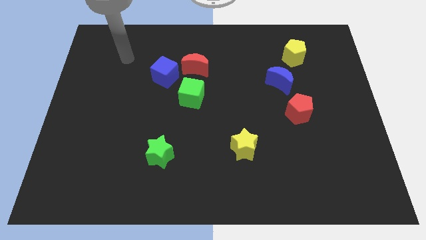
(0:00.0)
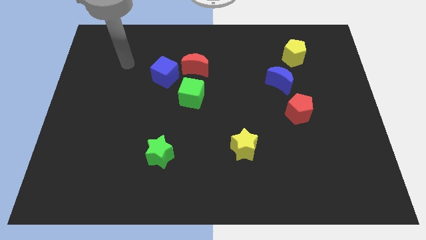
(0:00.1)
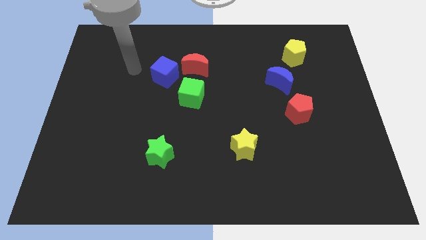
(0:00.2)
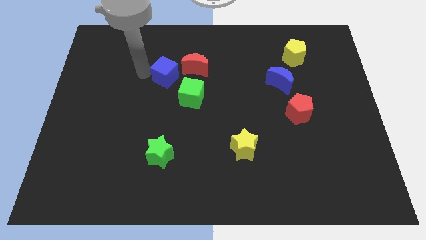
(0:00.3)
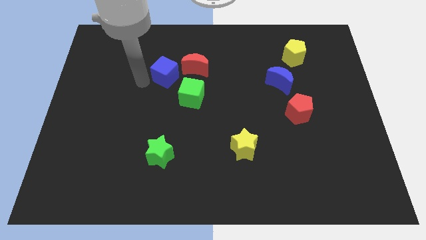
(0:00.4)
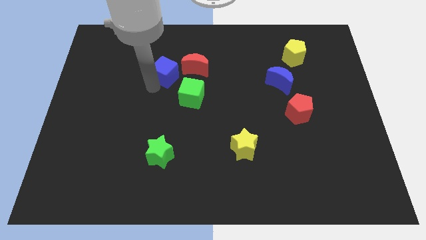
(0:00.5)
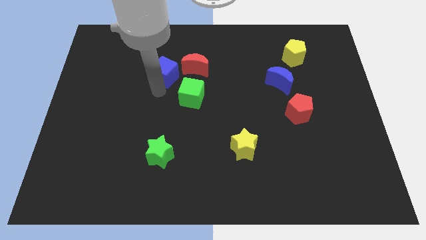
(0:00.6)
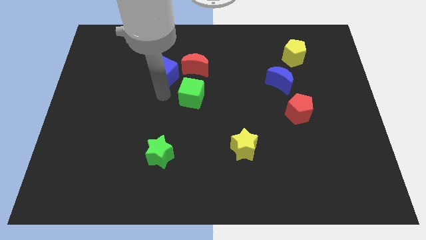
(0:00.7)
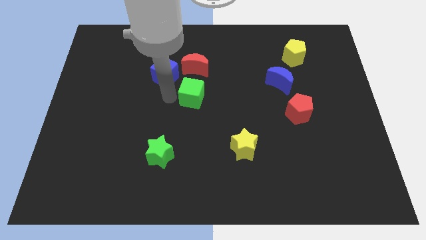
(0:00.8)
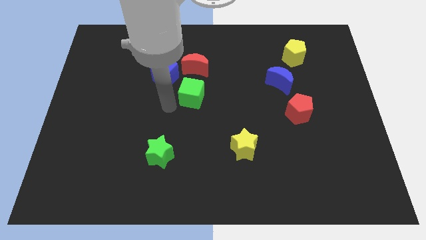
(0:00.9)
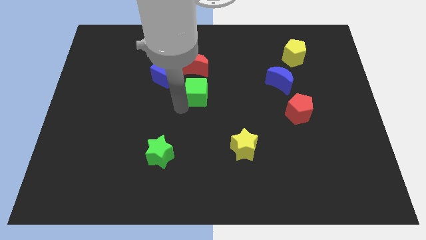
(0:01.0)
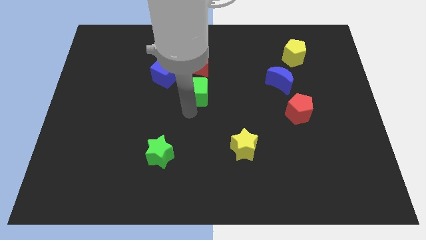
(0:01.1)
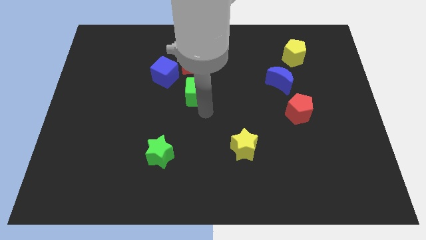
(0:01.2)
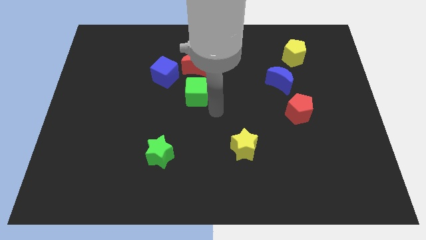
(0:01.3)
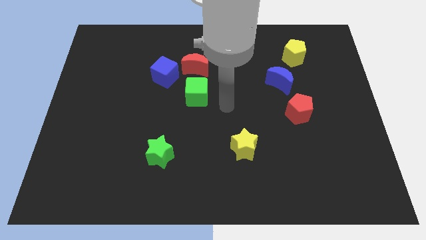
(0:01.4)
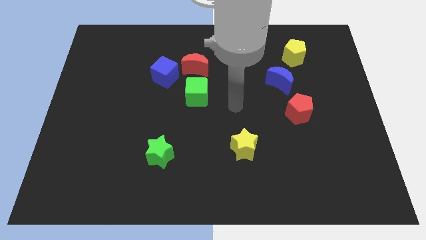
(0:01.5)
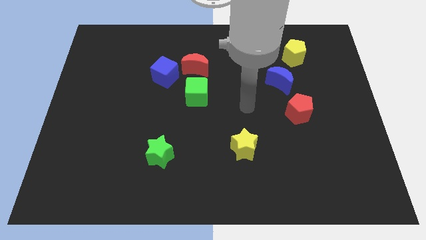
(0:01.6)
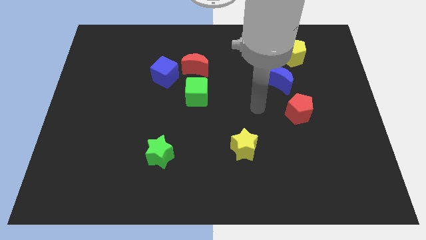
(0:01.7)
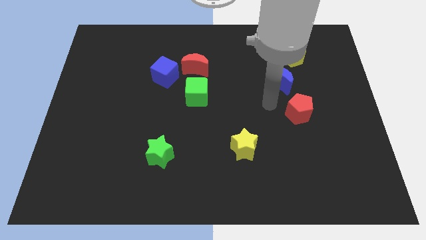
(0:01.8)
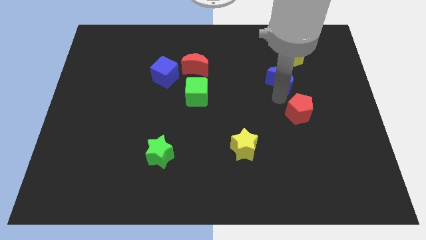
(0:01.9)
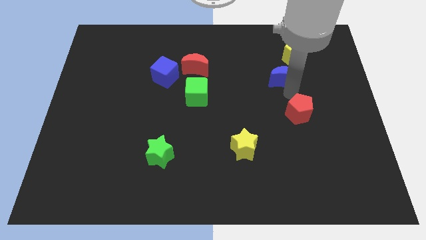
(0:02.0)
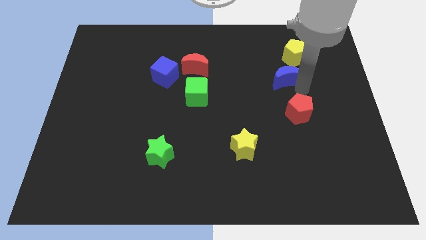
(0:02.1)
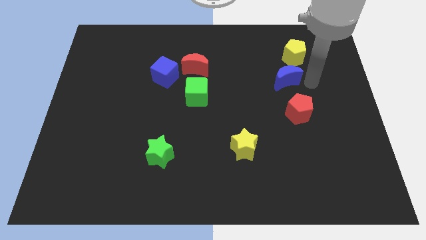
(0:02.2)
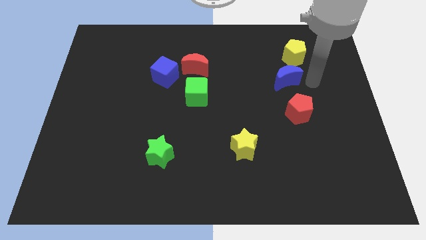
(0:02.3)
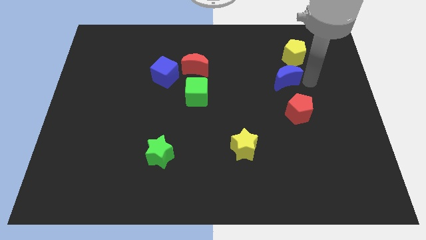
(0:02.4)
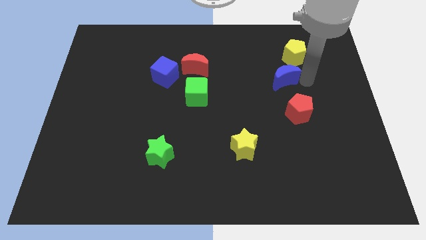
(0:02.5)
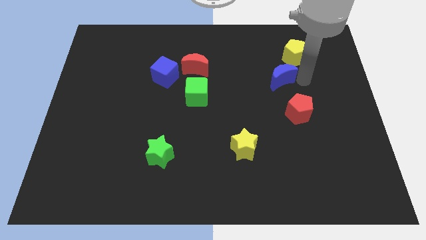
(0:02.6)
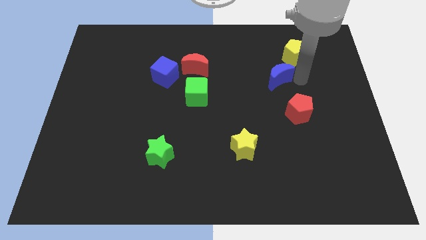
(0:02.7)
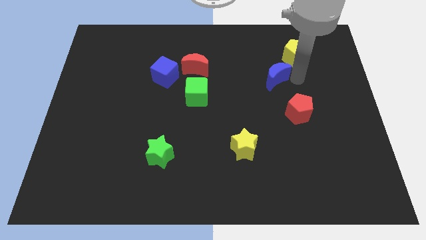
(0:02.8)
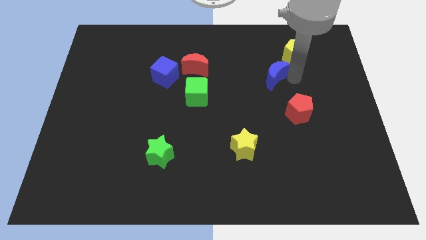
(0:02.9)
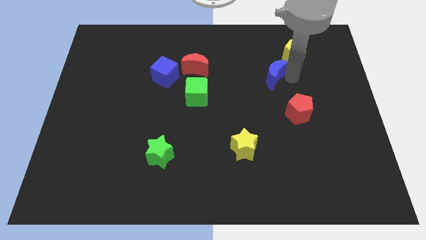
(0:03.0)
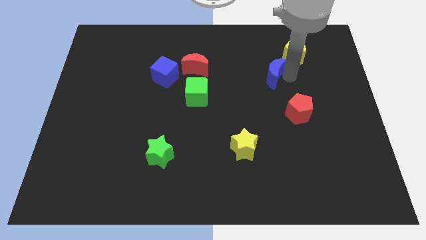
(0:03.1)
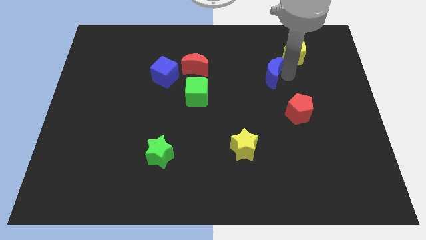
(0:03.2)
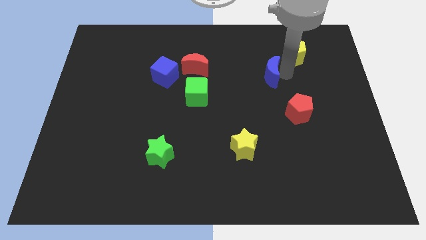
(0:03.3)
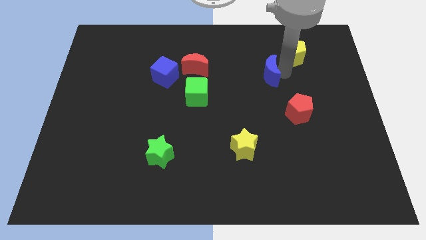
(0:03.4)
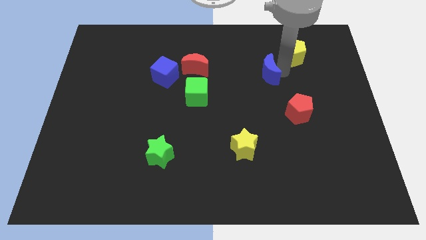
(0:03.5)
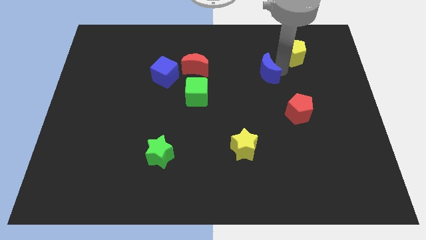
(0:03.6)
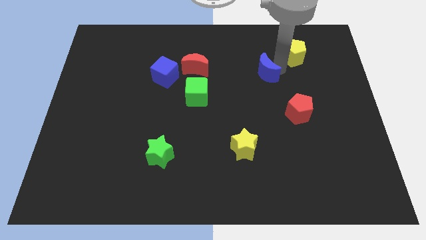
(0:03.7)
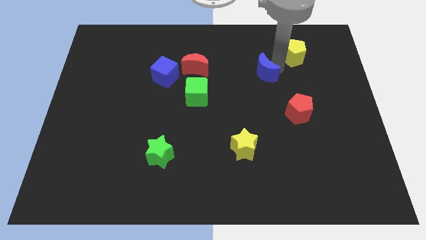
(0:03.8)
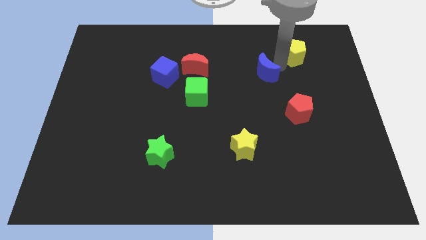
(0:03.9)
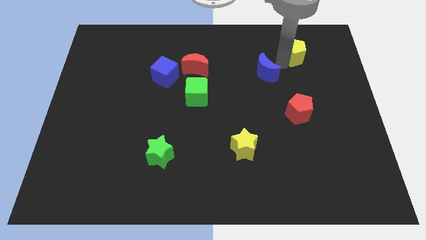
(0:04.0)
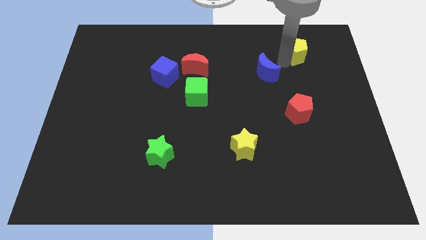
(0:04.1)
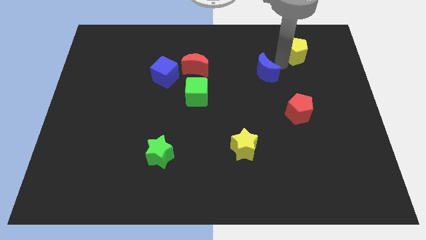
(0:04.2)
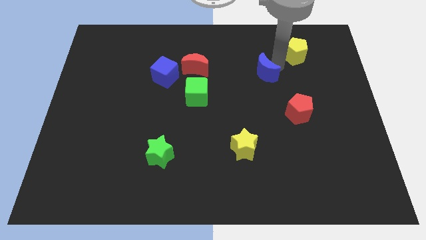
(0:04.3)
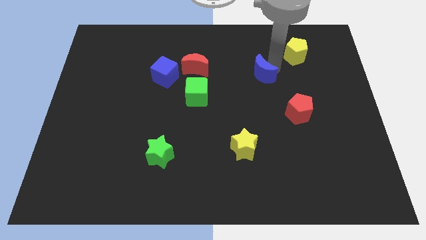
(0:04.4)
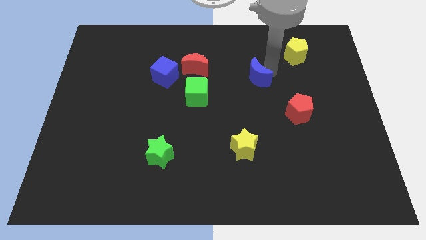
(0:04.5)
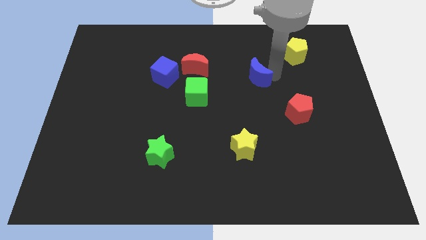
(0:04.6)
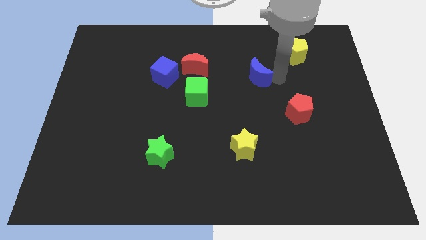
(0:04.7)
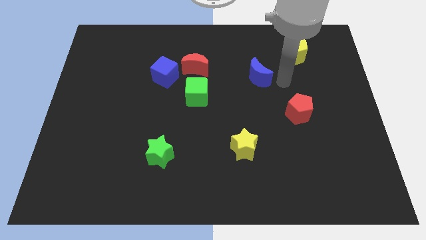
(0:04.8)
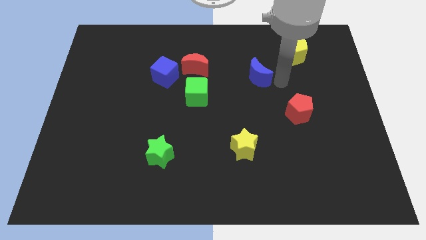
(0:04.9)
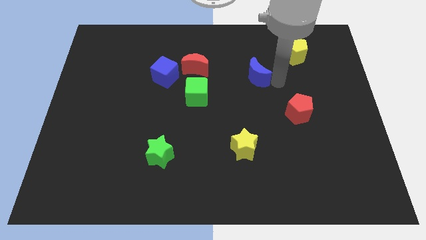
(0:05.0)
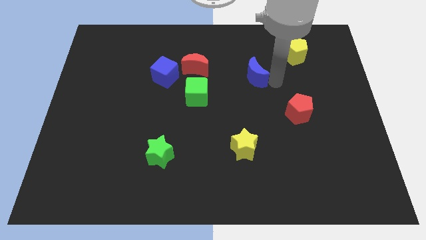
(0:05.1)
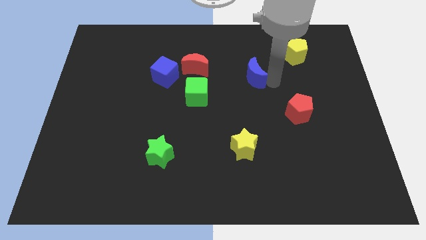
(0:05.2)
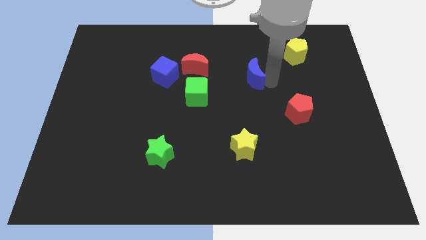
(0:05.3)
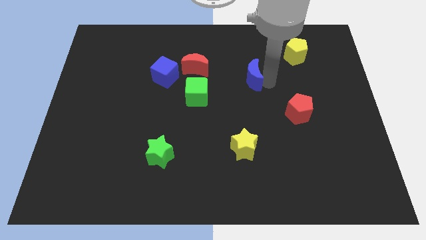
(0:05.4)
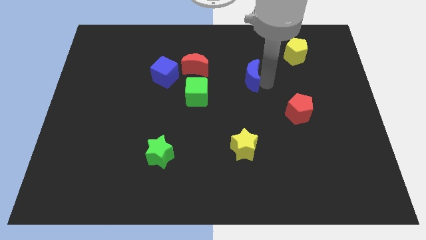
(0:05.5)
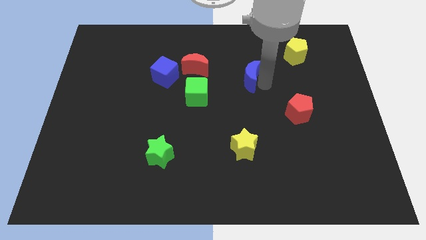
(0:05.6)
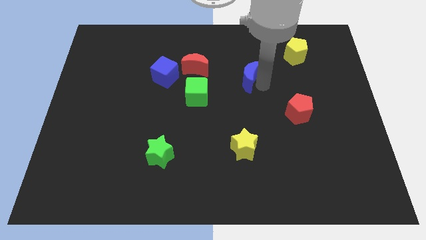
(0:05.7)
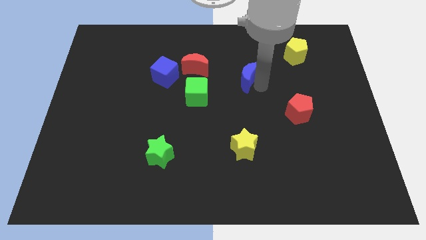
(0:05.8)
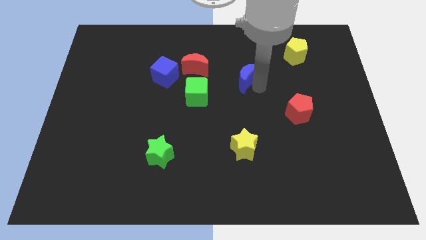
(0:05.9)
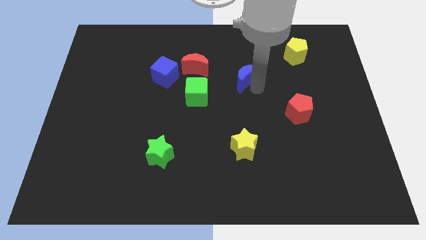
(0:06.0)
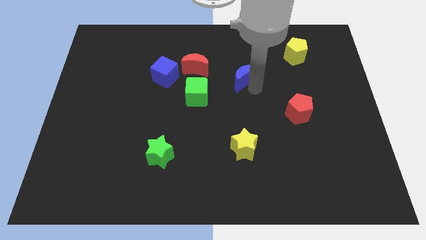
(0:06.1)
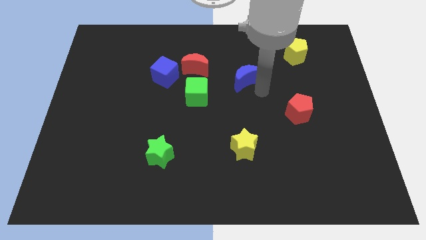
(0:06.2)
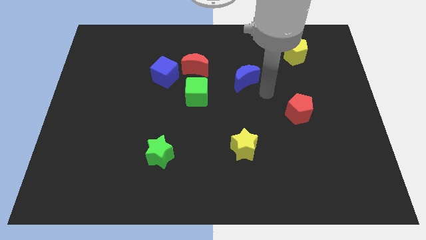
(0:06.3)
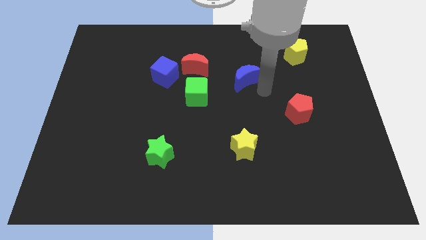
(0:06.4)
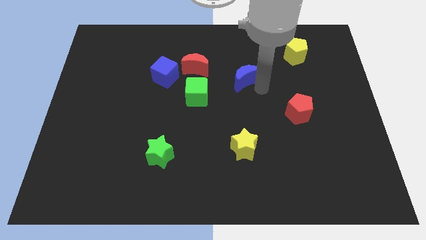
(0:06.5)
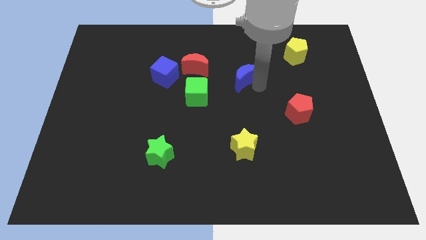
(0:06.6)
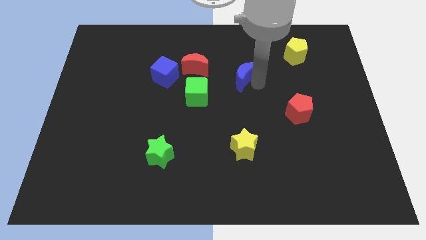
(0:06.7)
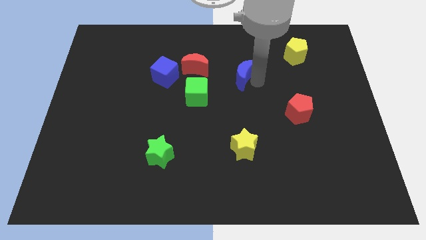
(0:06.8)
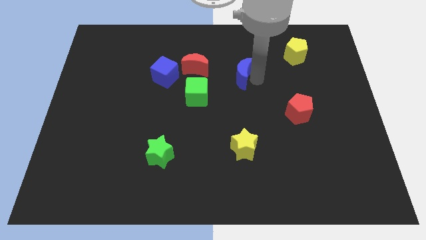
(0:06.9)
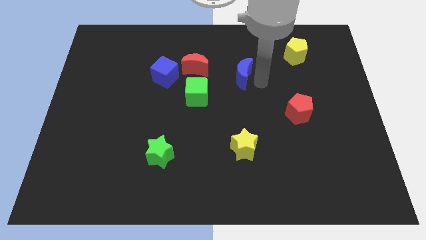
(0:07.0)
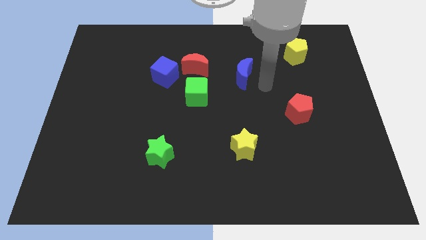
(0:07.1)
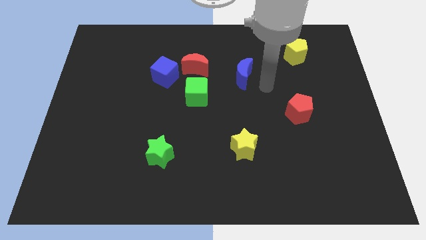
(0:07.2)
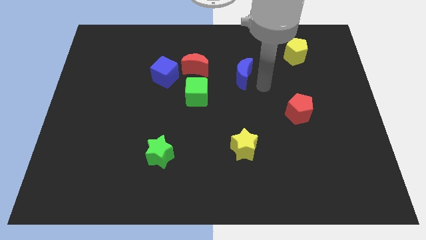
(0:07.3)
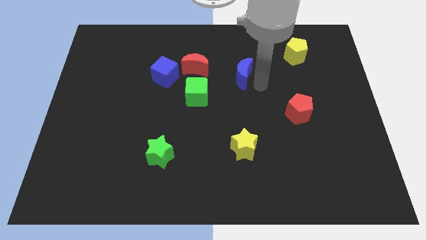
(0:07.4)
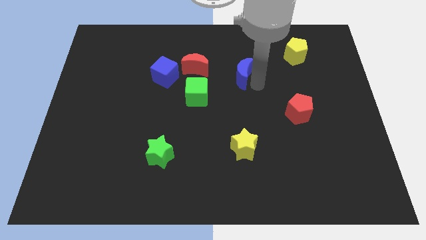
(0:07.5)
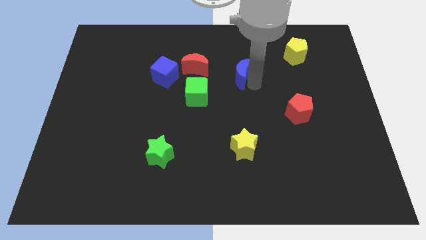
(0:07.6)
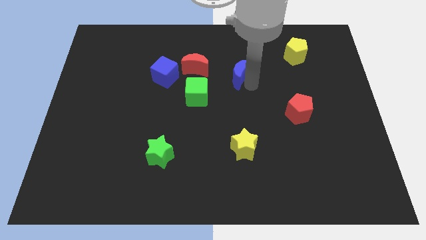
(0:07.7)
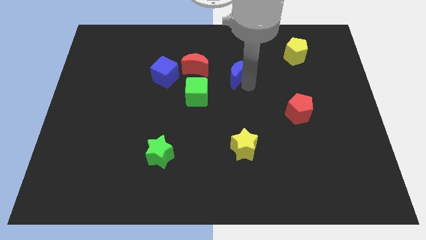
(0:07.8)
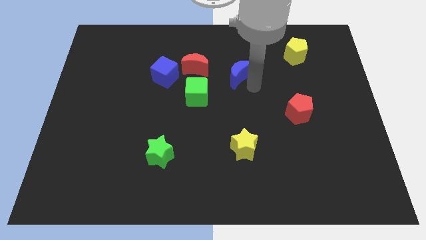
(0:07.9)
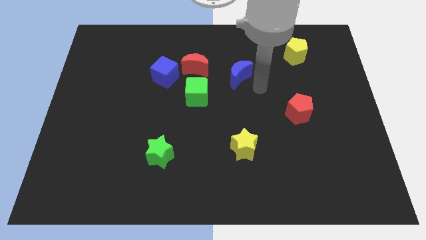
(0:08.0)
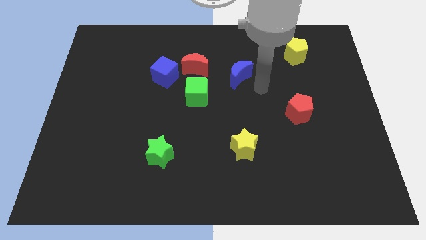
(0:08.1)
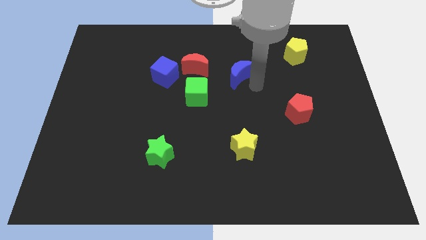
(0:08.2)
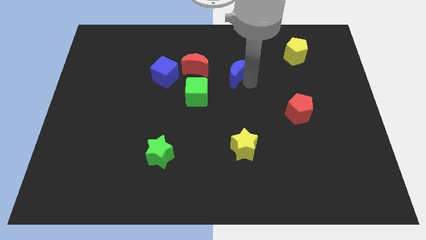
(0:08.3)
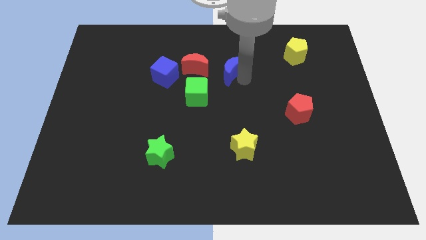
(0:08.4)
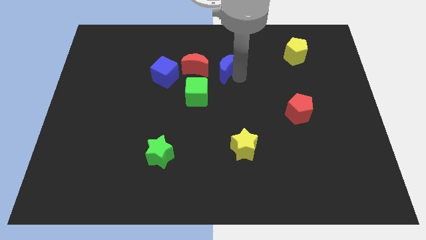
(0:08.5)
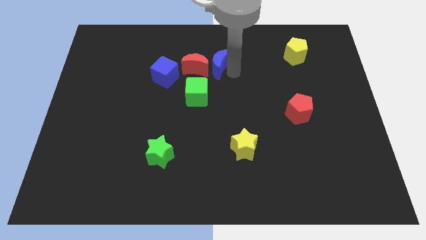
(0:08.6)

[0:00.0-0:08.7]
move the blue moon to the red moon
